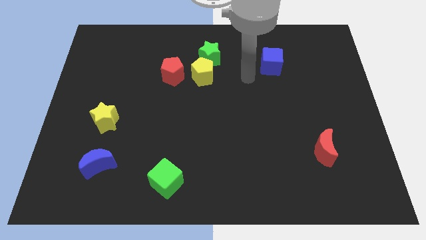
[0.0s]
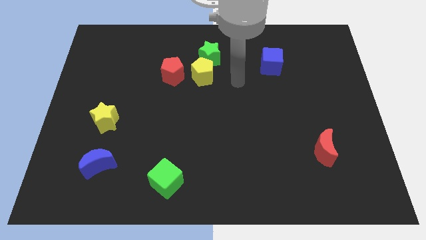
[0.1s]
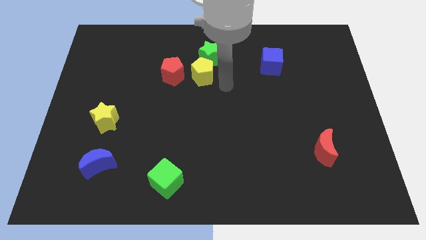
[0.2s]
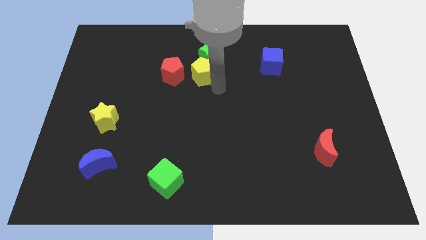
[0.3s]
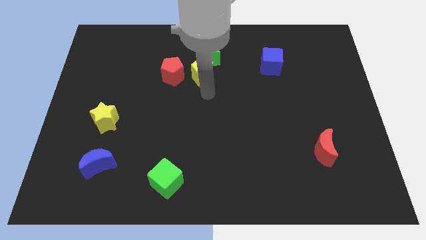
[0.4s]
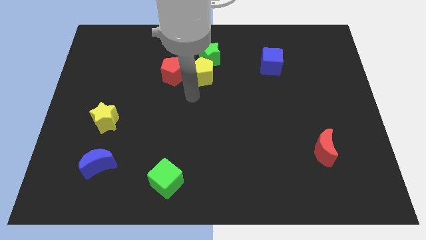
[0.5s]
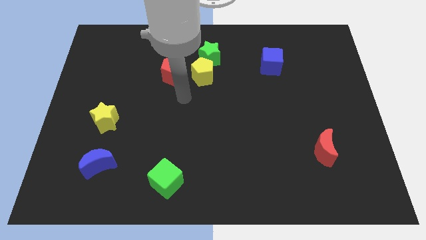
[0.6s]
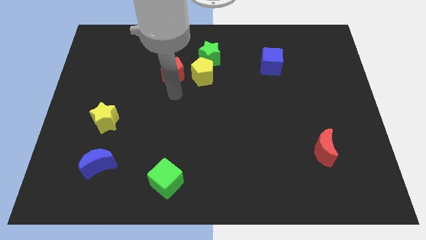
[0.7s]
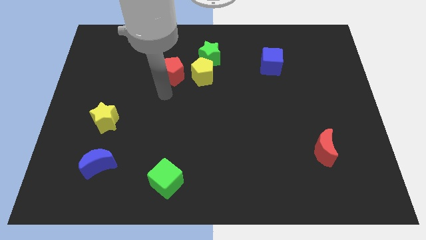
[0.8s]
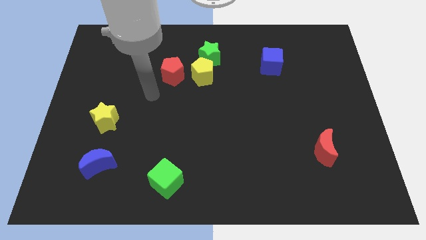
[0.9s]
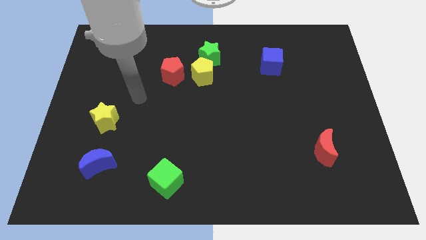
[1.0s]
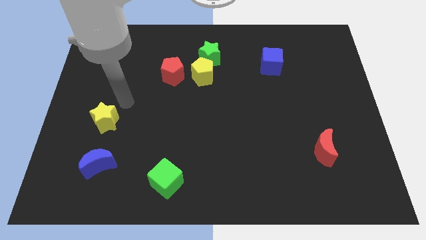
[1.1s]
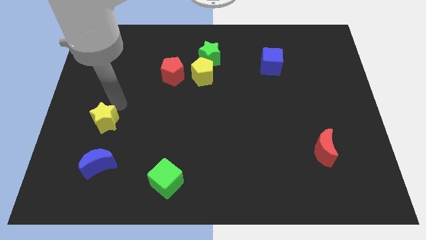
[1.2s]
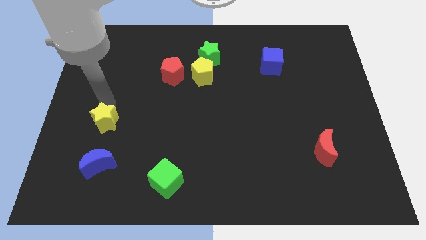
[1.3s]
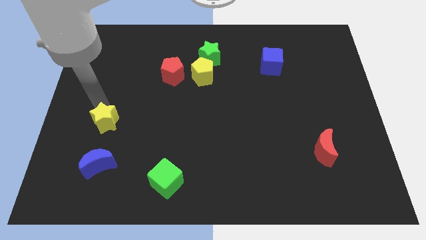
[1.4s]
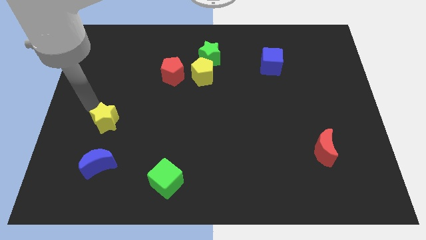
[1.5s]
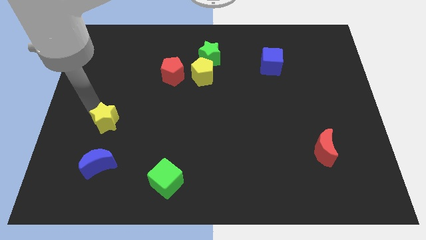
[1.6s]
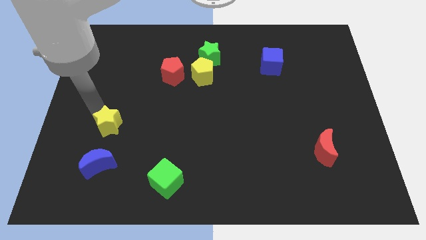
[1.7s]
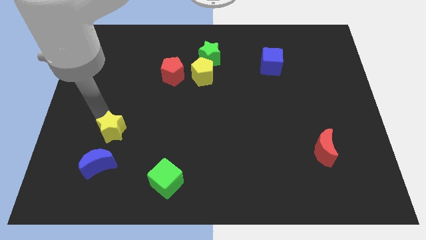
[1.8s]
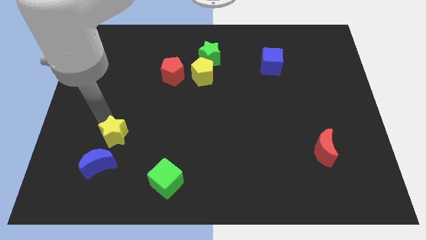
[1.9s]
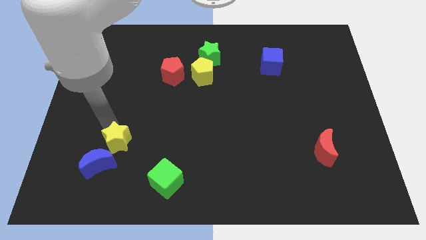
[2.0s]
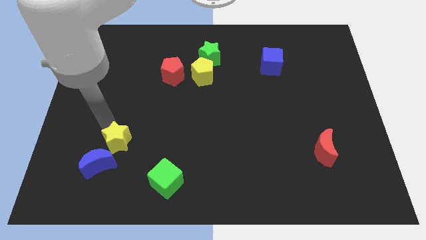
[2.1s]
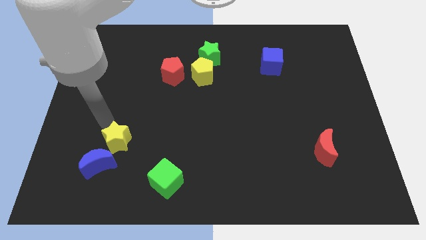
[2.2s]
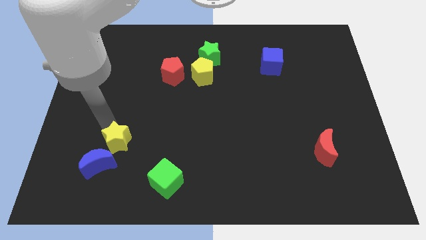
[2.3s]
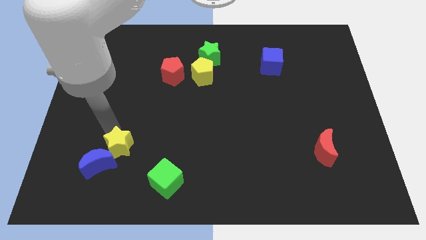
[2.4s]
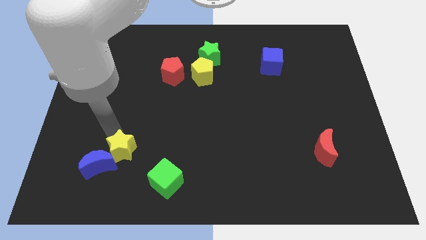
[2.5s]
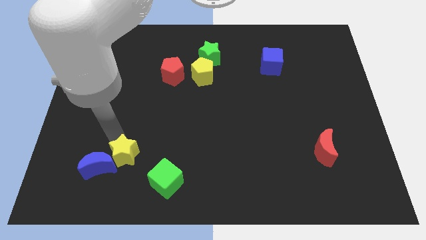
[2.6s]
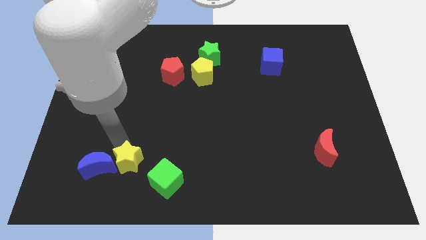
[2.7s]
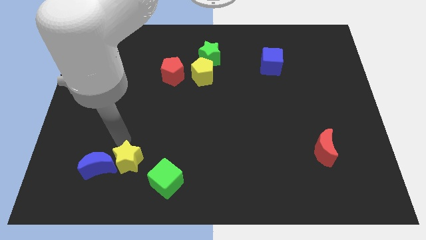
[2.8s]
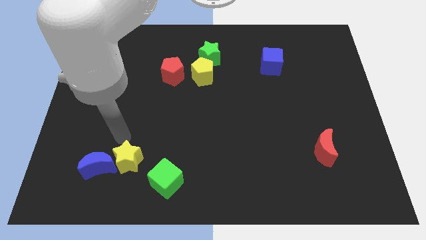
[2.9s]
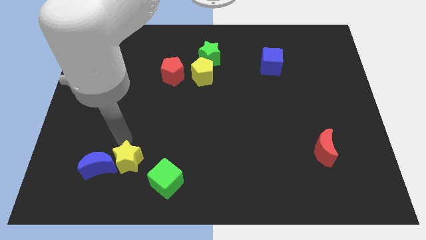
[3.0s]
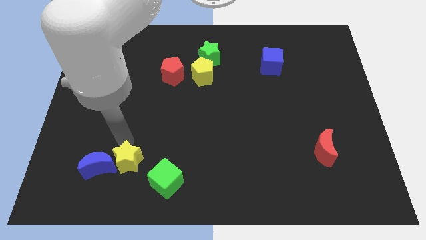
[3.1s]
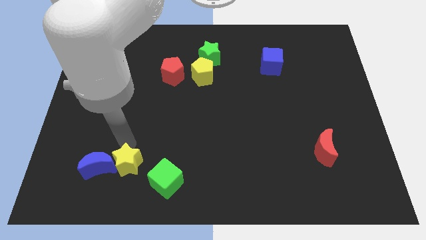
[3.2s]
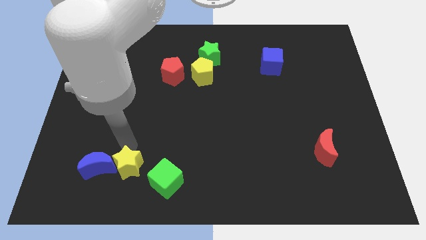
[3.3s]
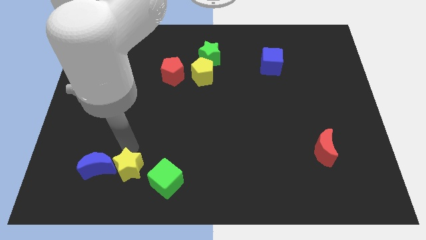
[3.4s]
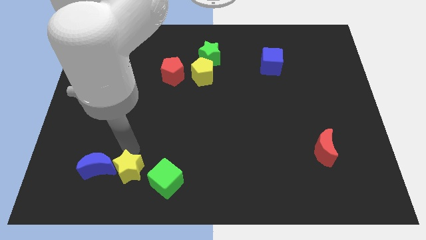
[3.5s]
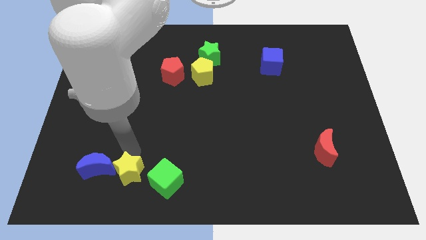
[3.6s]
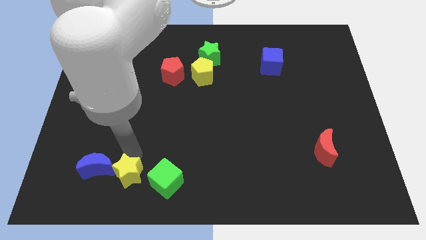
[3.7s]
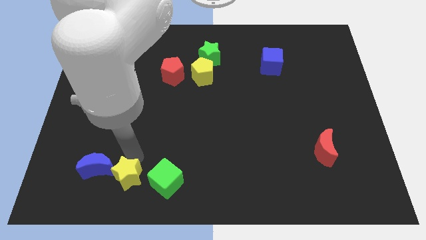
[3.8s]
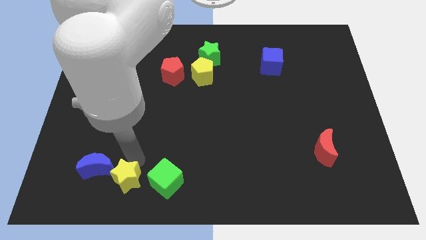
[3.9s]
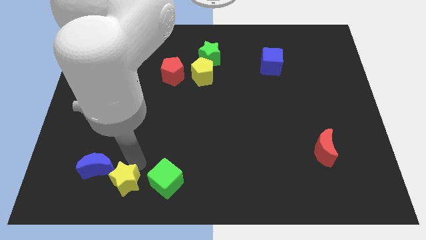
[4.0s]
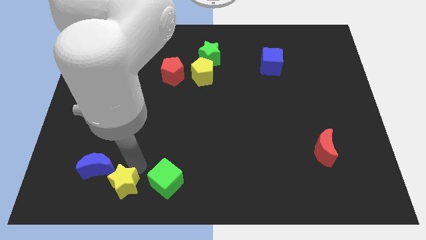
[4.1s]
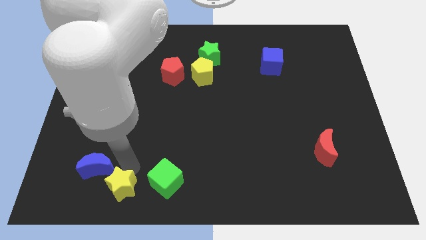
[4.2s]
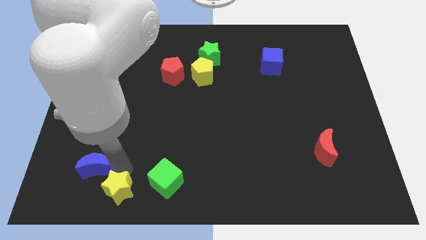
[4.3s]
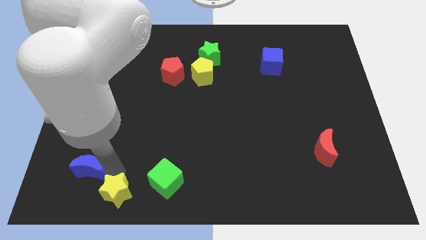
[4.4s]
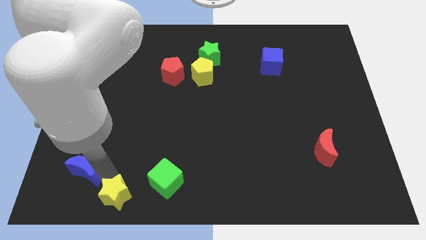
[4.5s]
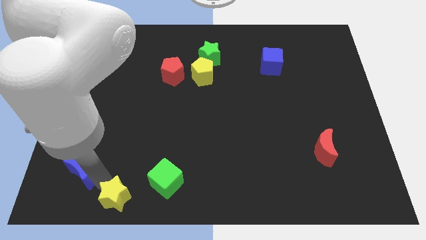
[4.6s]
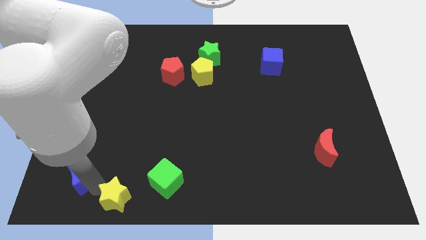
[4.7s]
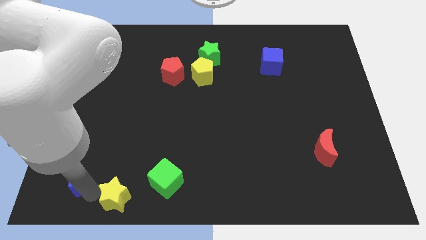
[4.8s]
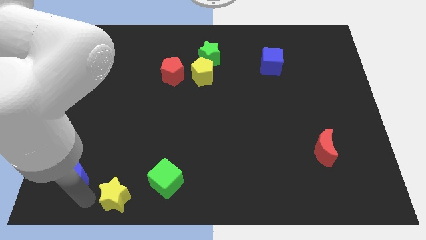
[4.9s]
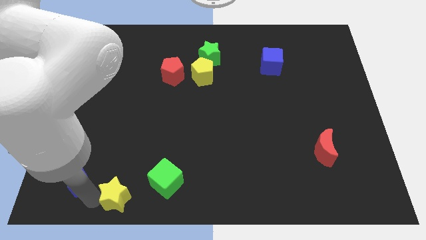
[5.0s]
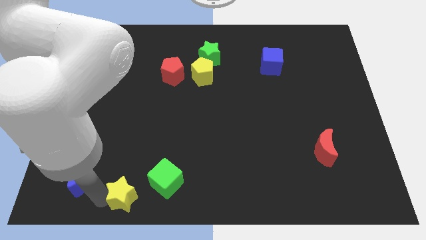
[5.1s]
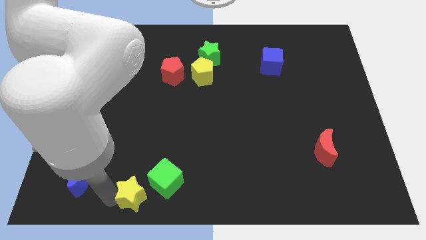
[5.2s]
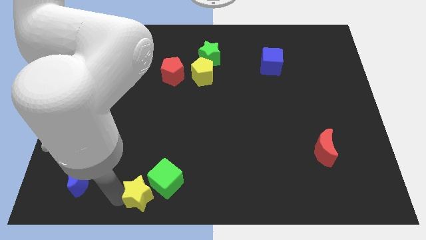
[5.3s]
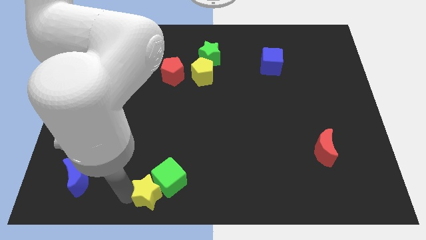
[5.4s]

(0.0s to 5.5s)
push the yellow star to the bottom
